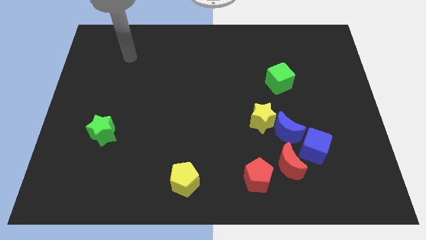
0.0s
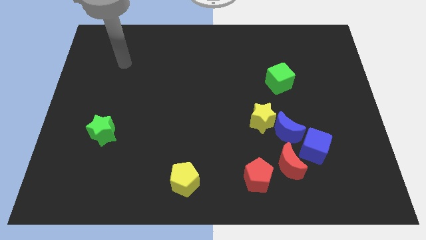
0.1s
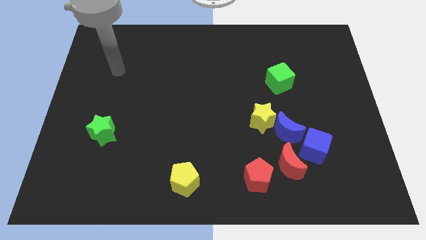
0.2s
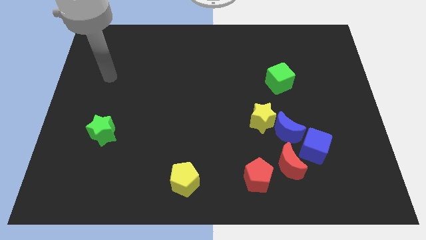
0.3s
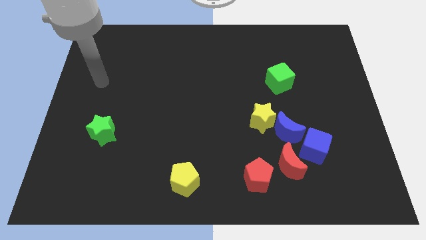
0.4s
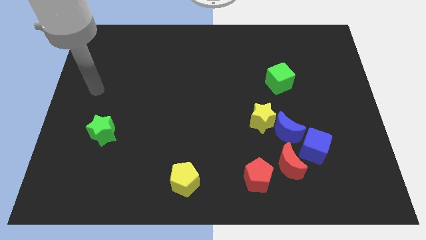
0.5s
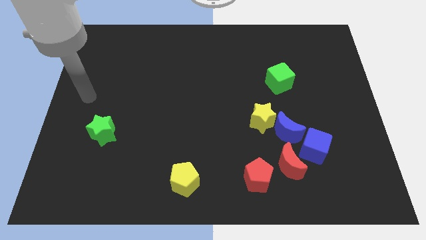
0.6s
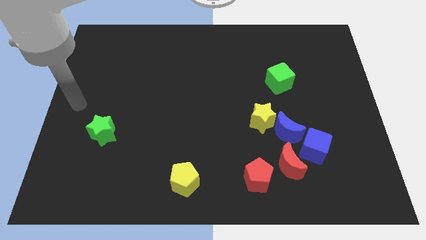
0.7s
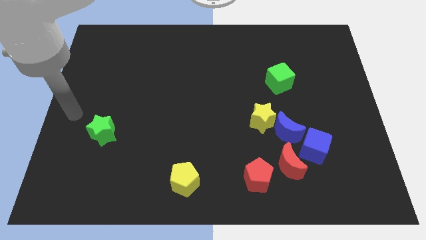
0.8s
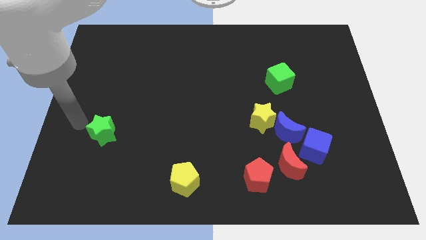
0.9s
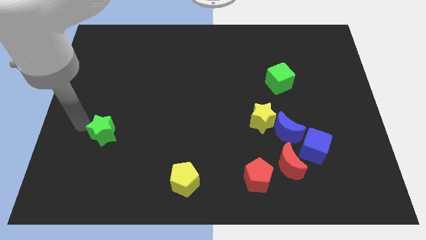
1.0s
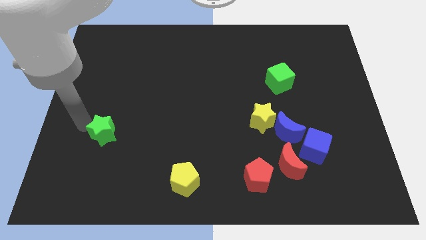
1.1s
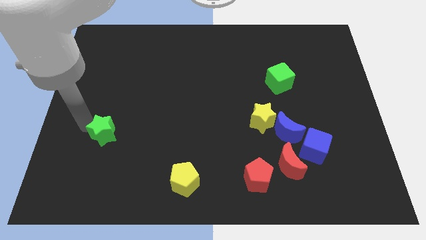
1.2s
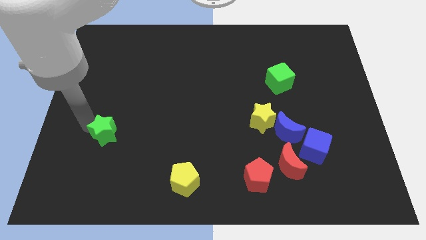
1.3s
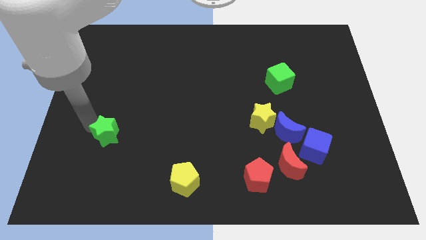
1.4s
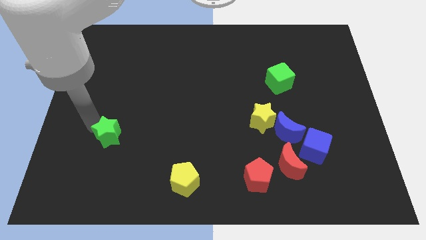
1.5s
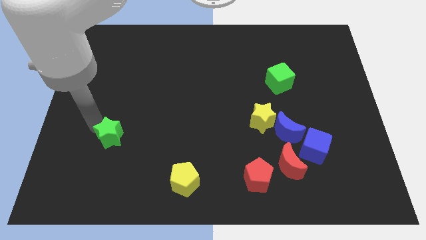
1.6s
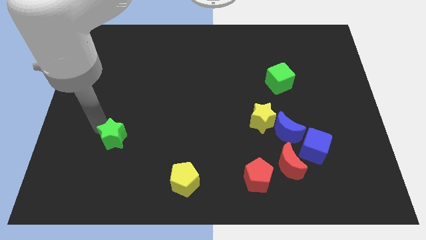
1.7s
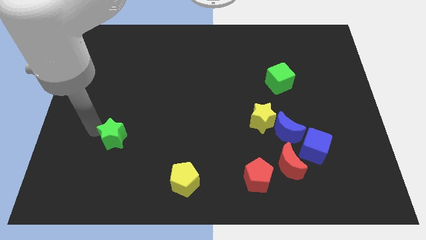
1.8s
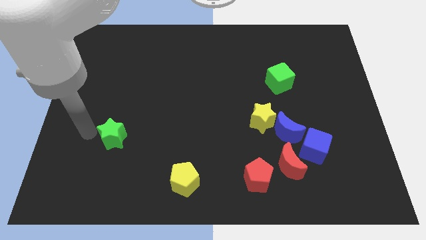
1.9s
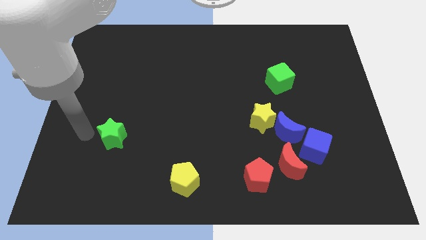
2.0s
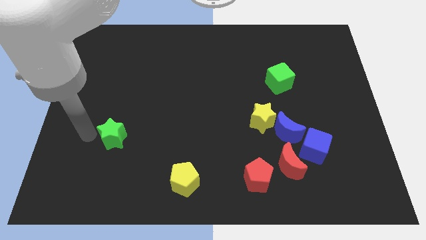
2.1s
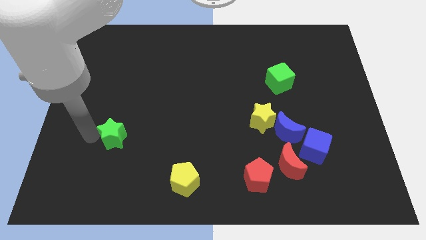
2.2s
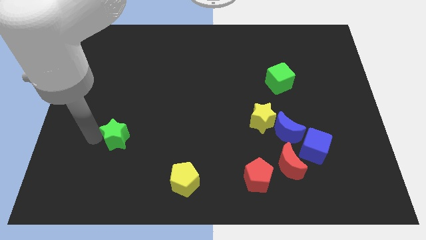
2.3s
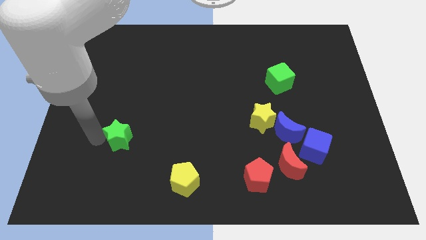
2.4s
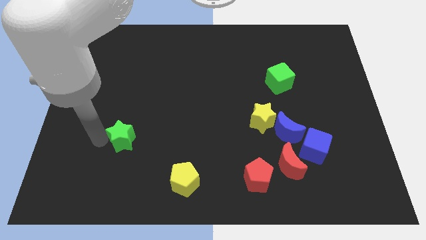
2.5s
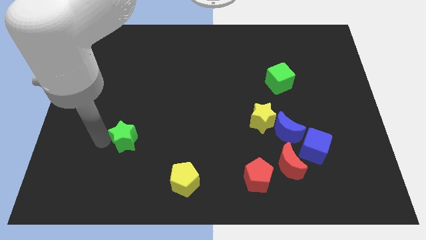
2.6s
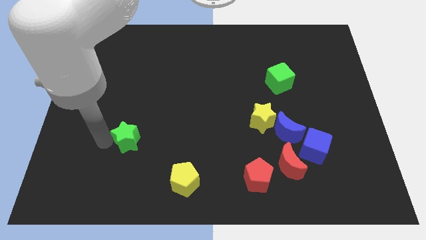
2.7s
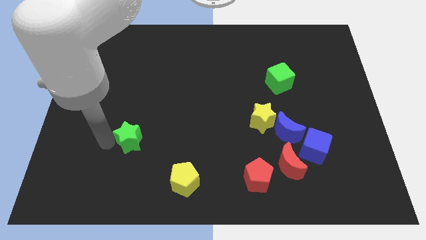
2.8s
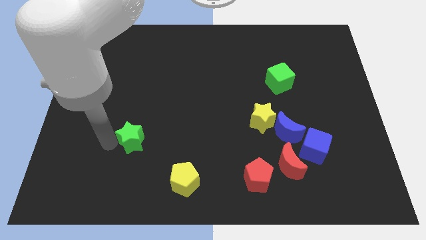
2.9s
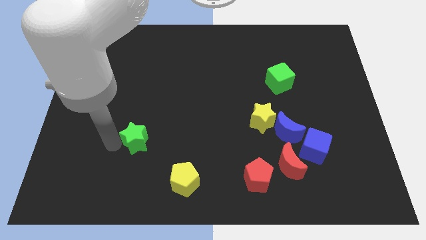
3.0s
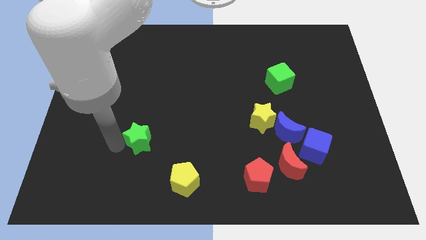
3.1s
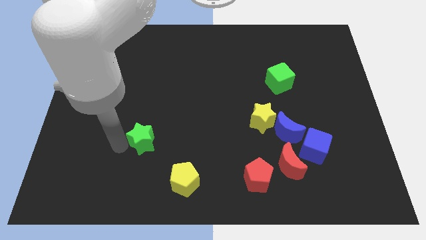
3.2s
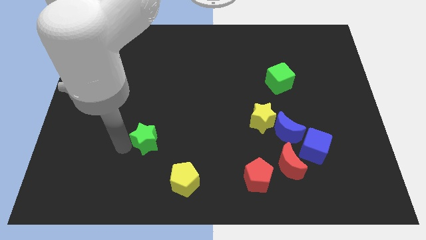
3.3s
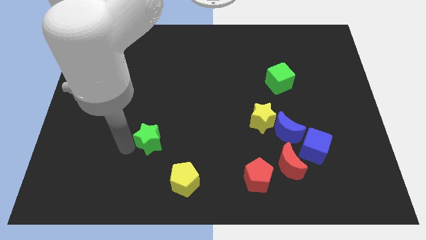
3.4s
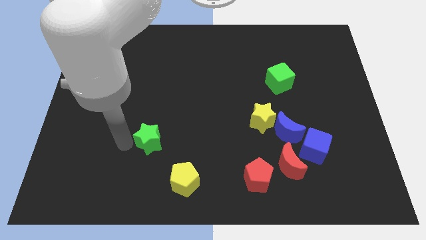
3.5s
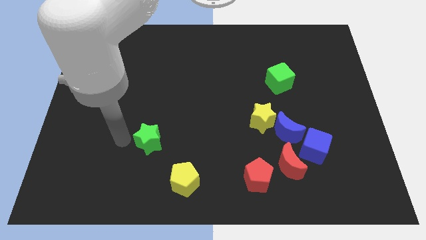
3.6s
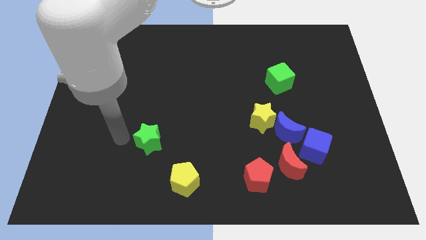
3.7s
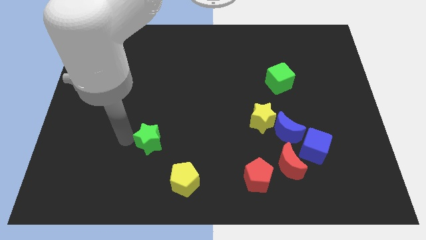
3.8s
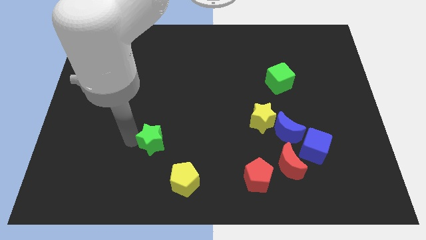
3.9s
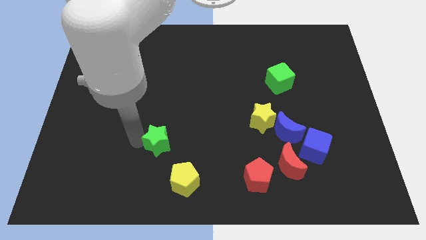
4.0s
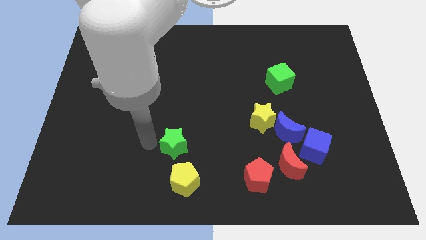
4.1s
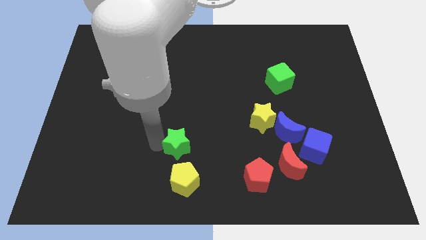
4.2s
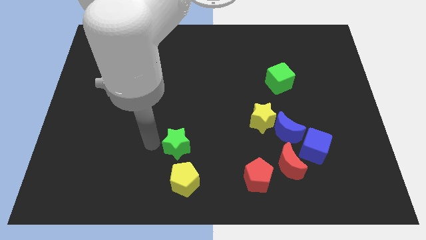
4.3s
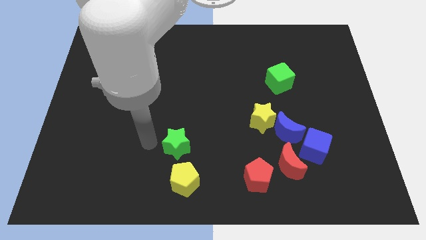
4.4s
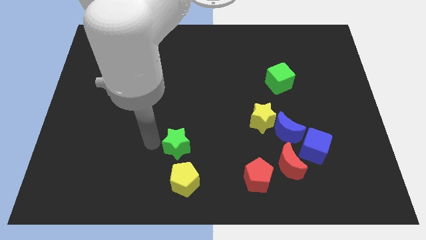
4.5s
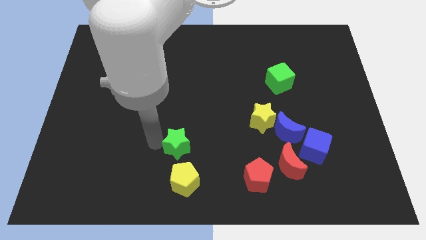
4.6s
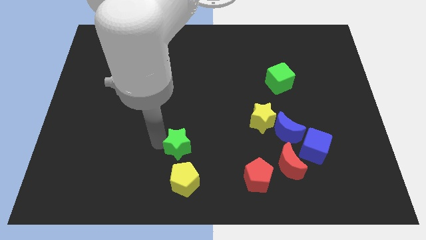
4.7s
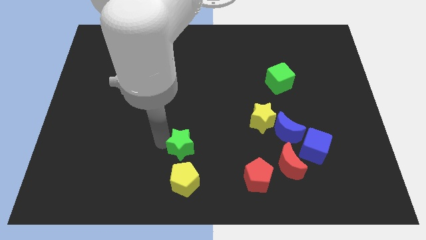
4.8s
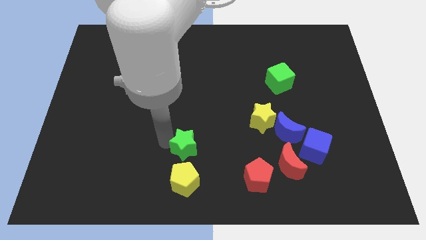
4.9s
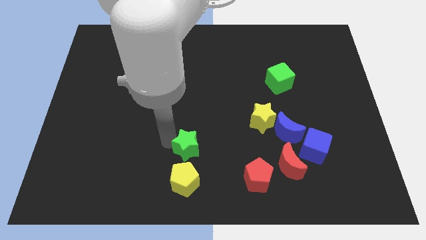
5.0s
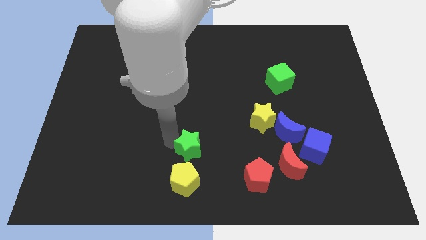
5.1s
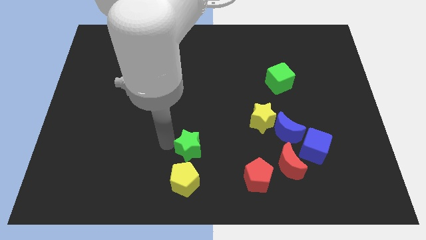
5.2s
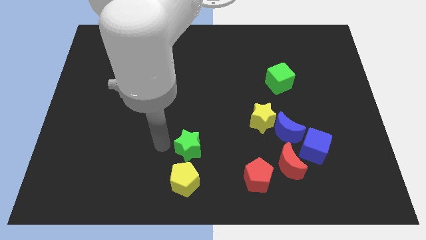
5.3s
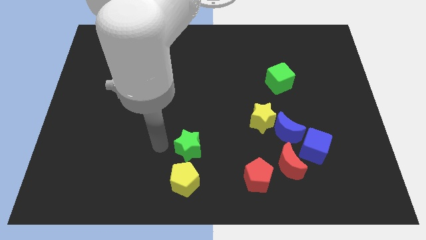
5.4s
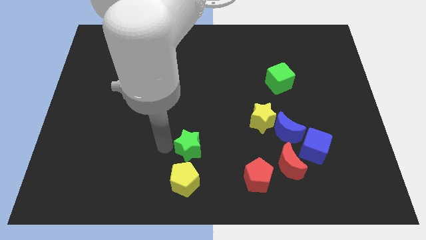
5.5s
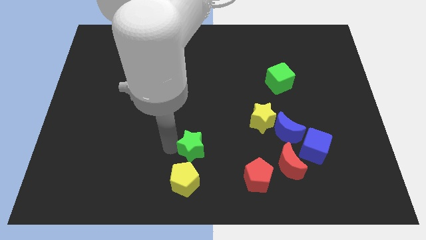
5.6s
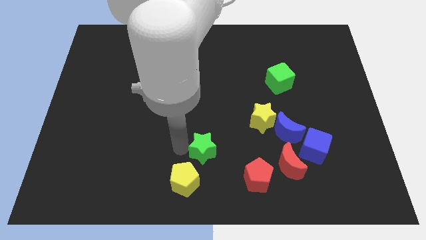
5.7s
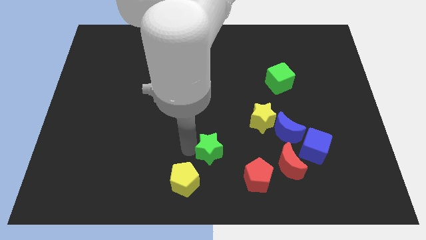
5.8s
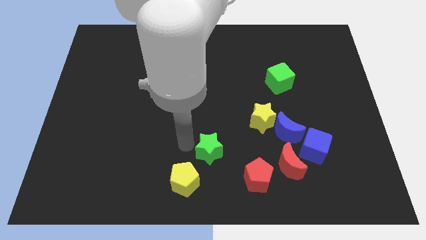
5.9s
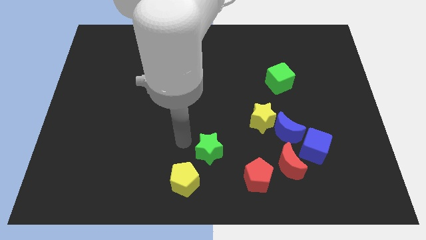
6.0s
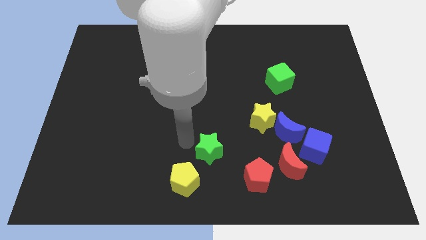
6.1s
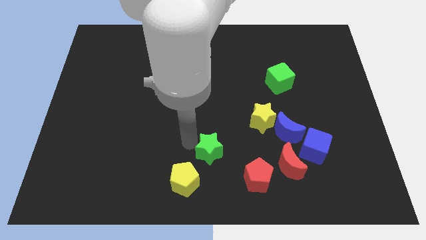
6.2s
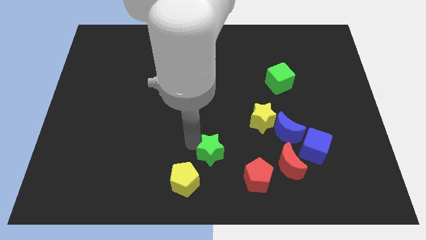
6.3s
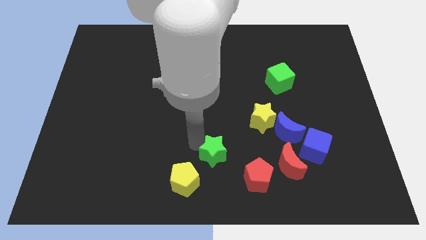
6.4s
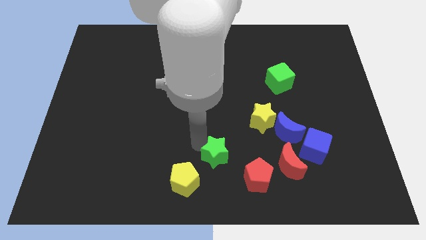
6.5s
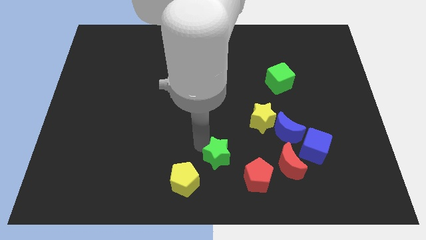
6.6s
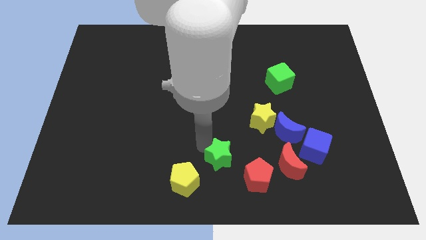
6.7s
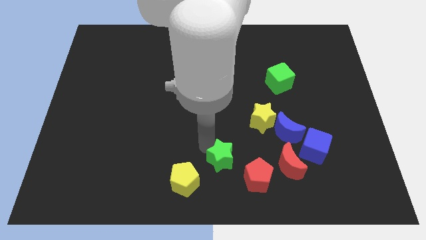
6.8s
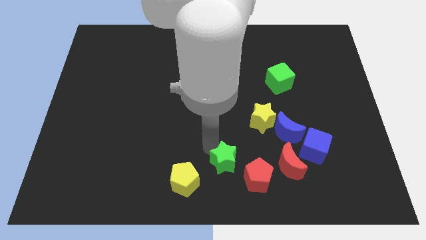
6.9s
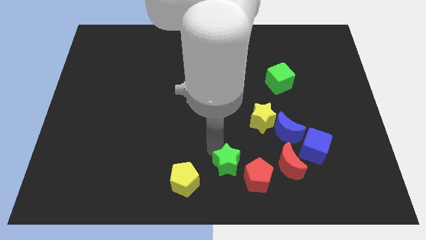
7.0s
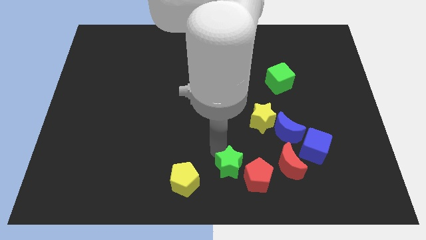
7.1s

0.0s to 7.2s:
put the green star towards the red pentagon
